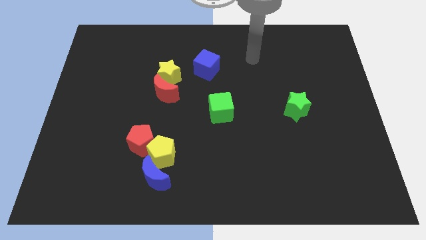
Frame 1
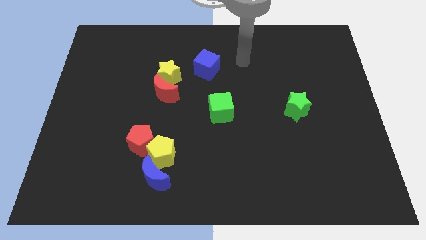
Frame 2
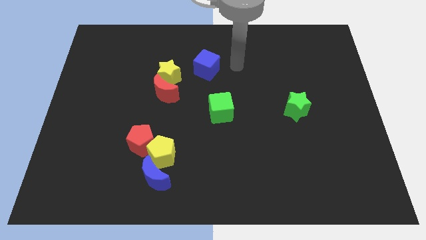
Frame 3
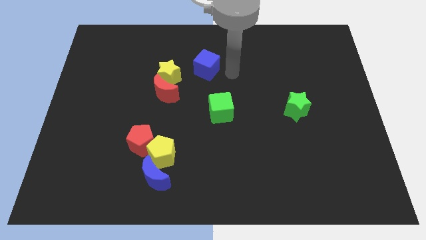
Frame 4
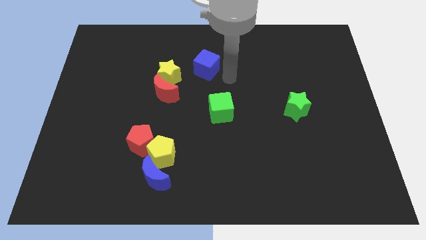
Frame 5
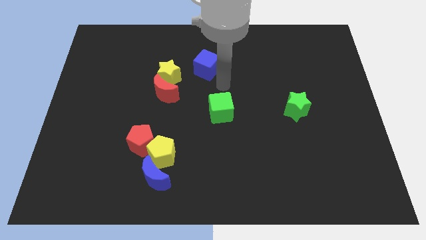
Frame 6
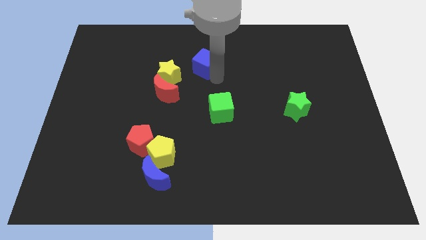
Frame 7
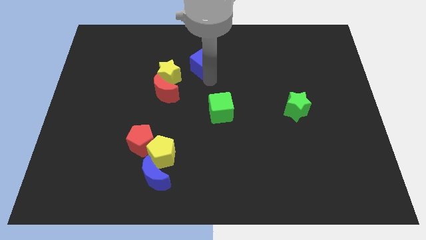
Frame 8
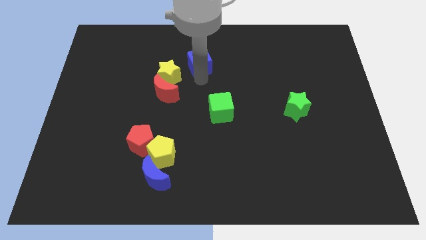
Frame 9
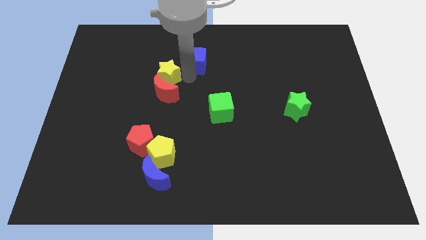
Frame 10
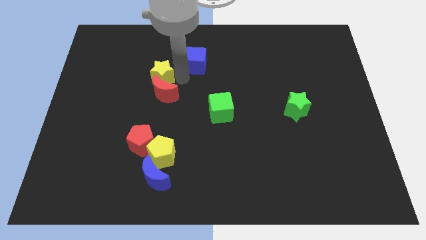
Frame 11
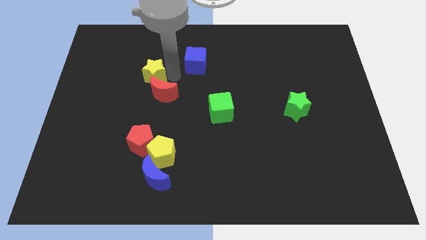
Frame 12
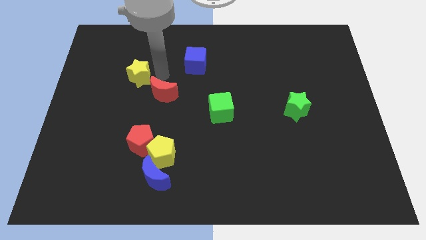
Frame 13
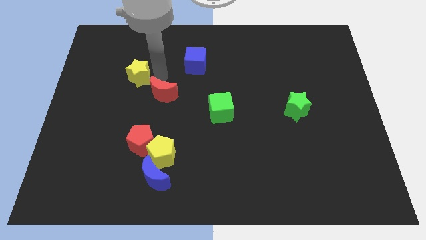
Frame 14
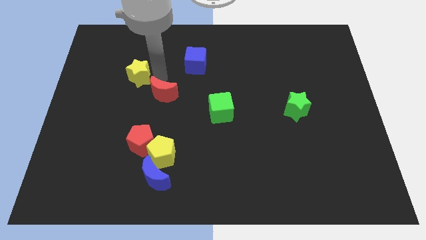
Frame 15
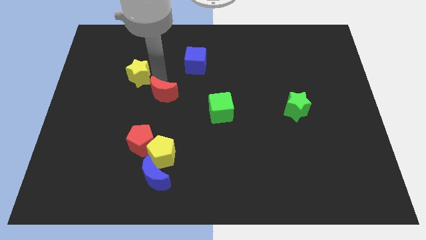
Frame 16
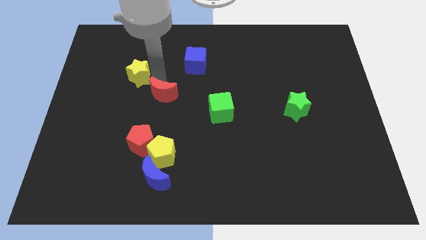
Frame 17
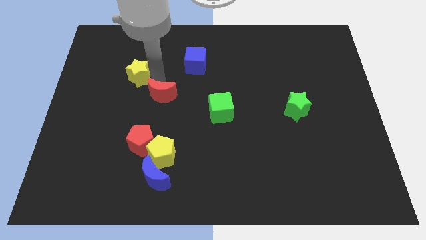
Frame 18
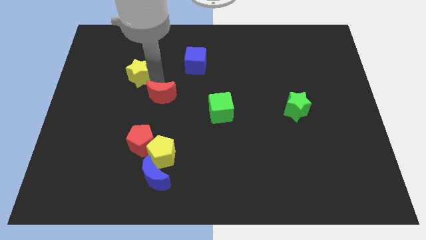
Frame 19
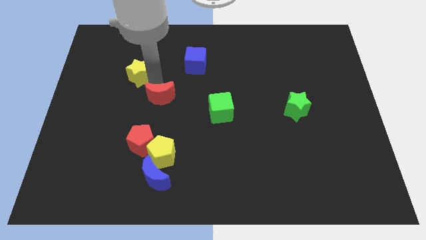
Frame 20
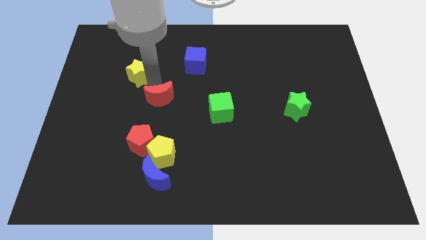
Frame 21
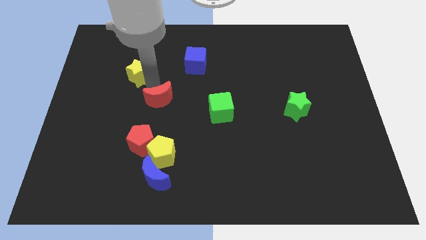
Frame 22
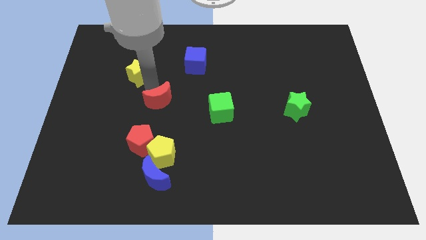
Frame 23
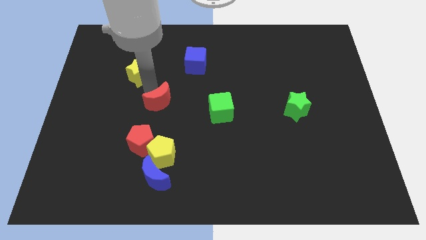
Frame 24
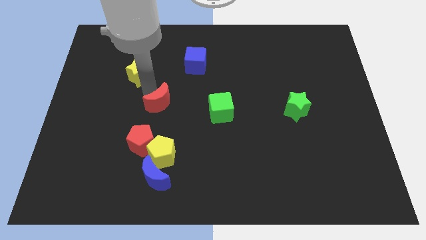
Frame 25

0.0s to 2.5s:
separate the red moon from the yellow star

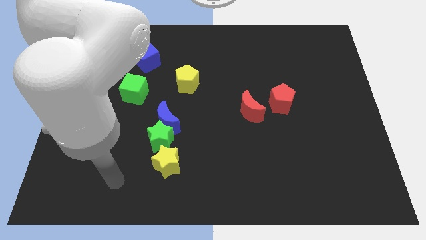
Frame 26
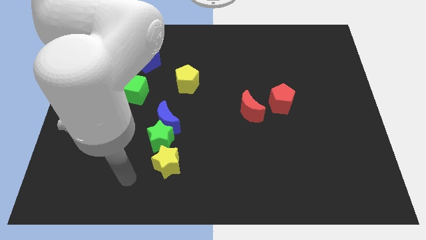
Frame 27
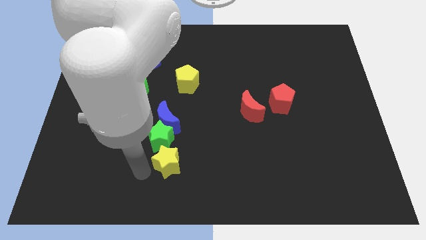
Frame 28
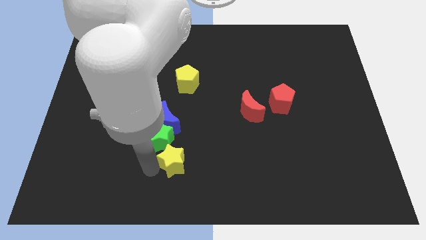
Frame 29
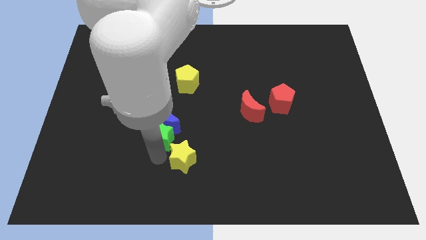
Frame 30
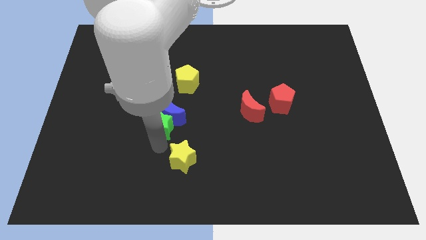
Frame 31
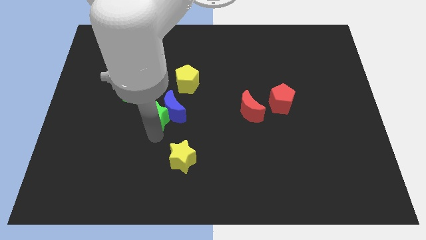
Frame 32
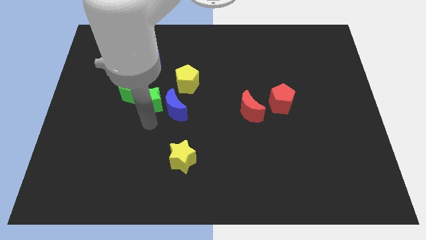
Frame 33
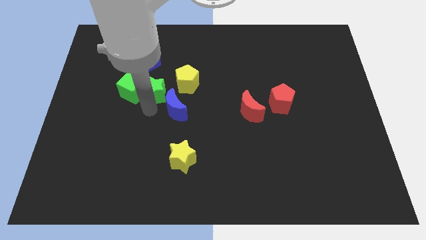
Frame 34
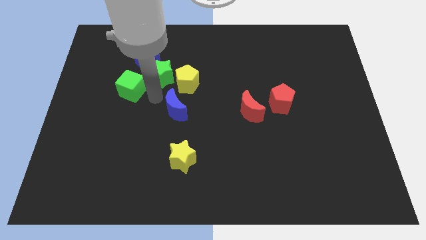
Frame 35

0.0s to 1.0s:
separate the blue moon from the green star

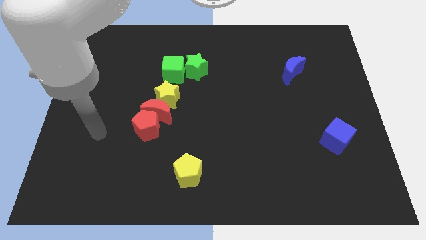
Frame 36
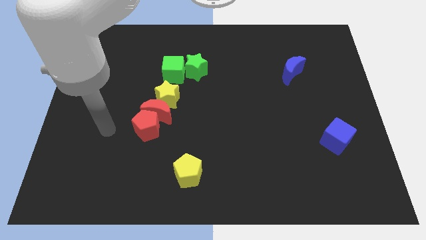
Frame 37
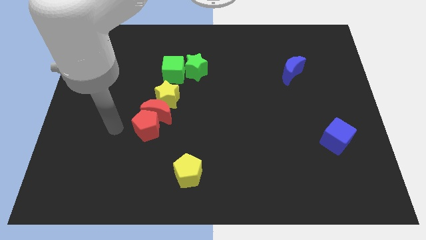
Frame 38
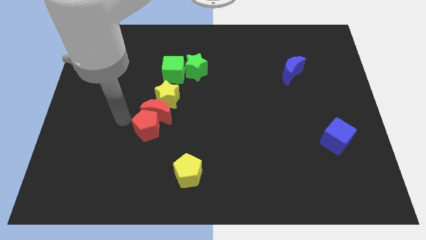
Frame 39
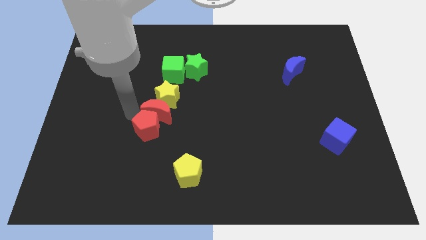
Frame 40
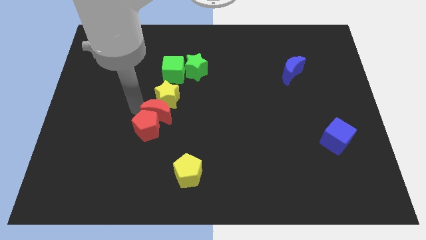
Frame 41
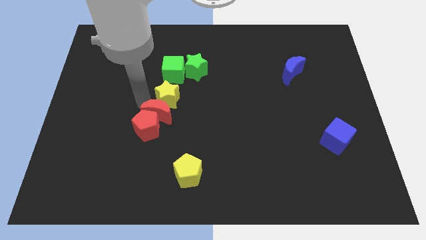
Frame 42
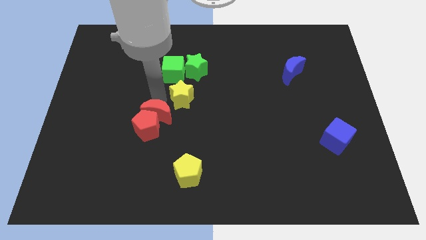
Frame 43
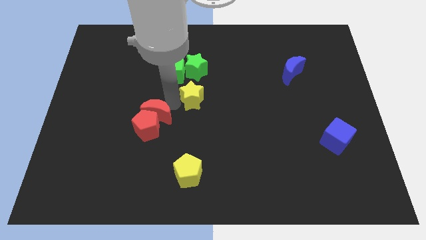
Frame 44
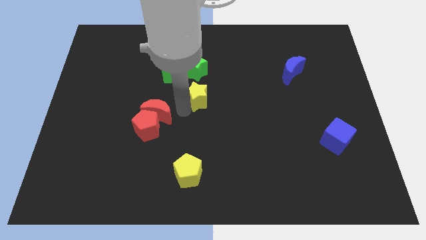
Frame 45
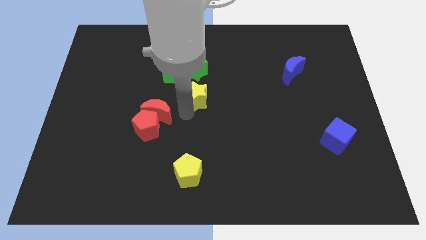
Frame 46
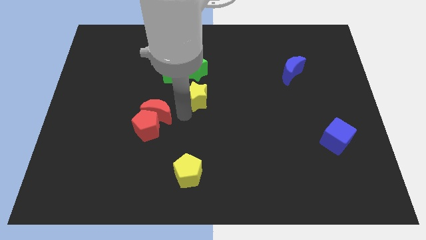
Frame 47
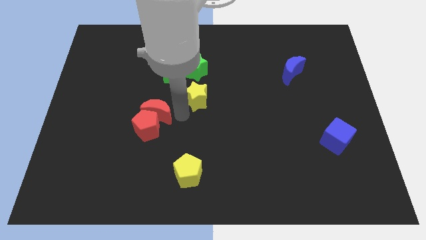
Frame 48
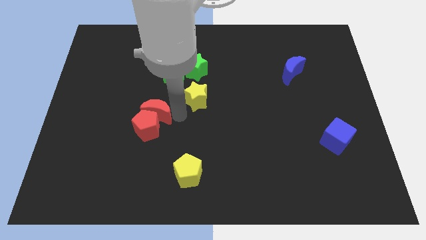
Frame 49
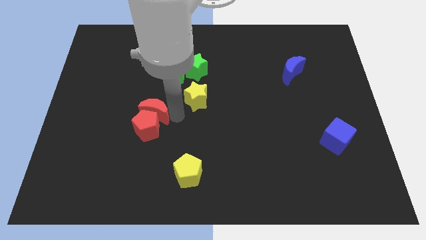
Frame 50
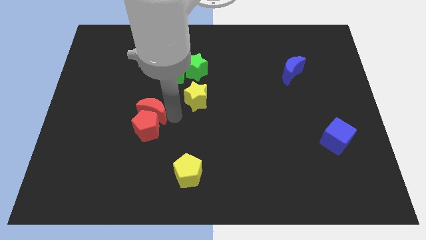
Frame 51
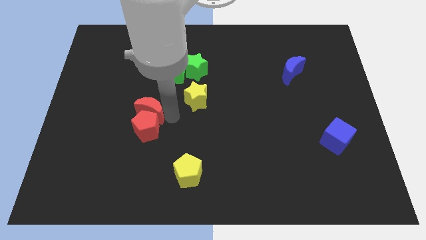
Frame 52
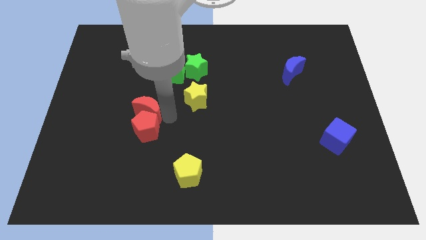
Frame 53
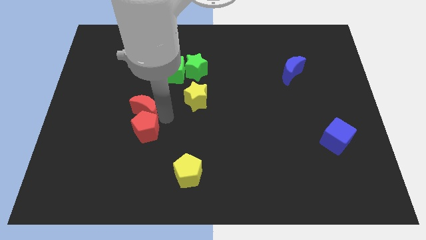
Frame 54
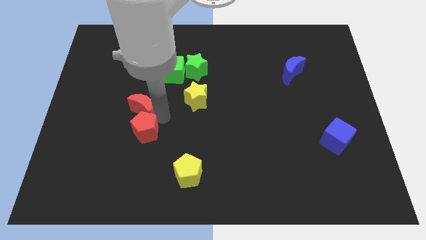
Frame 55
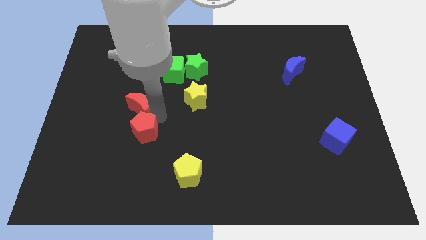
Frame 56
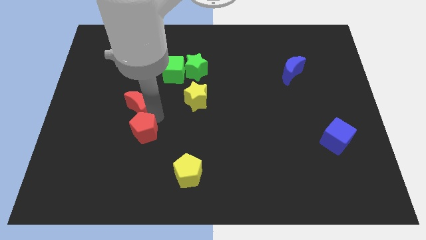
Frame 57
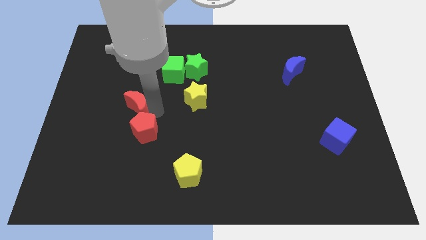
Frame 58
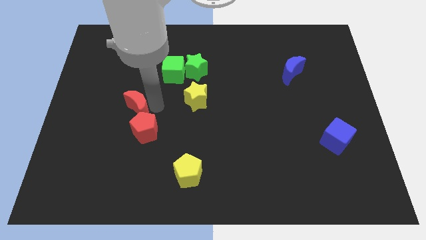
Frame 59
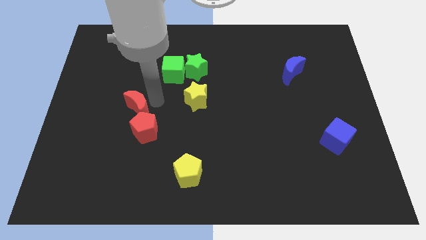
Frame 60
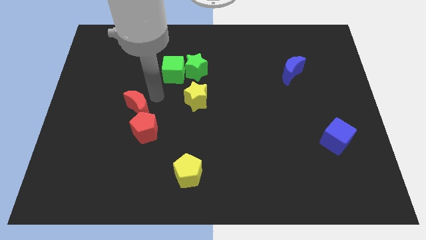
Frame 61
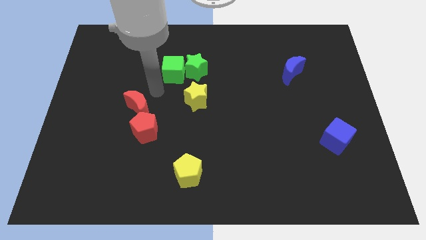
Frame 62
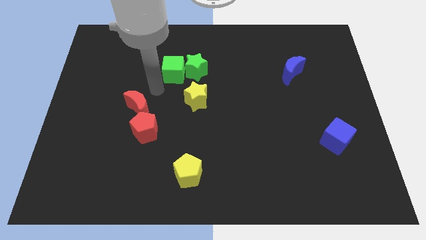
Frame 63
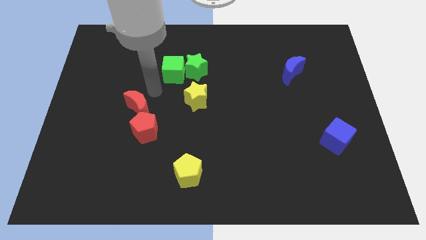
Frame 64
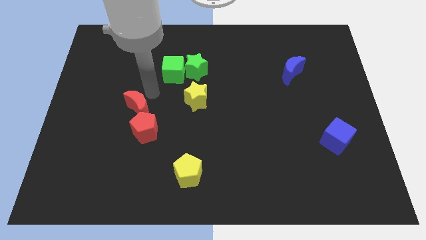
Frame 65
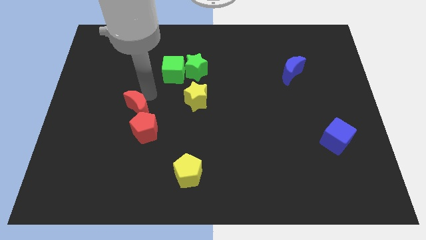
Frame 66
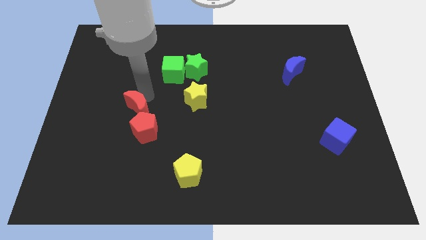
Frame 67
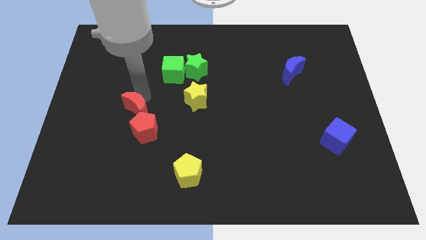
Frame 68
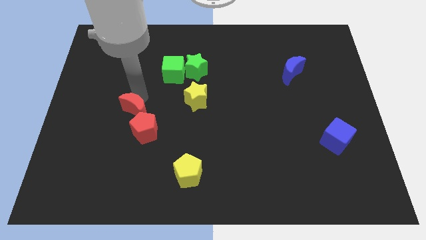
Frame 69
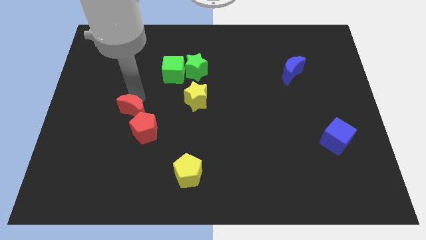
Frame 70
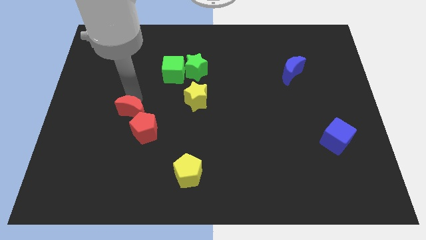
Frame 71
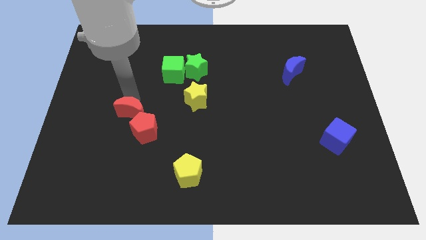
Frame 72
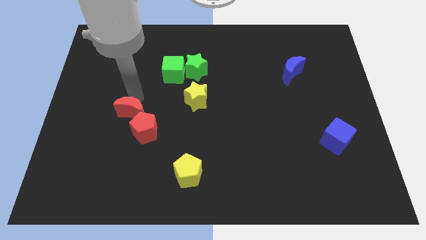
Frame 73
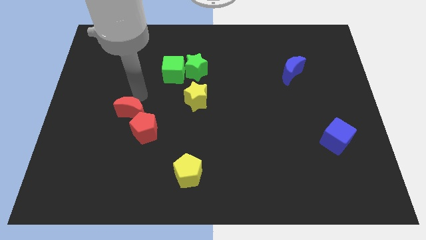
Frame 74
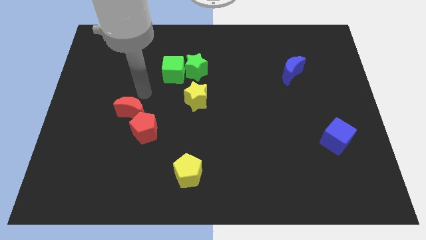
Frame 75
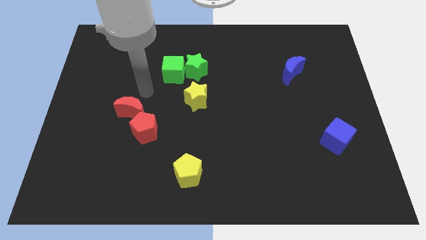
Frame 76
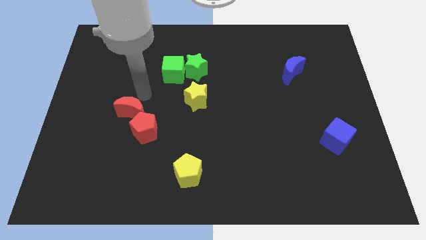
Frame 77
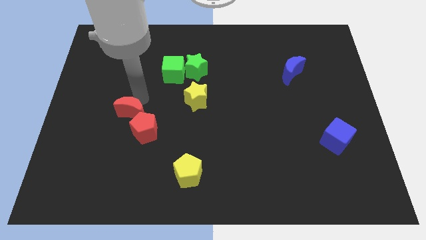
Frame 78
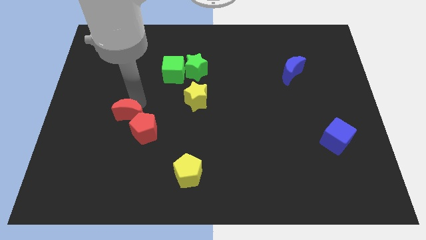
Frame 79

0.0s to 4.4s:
pull the red moon apart from the red pentagon and yellow star

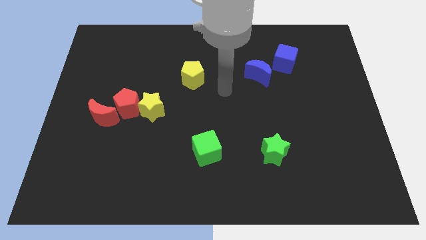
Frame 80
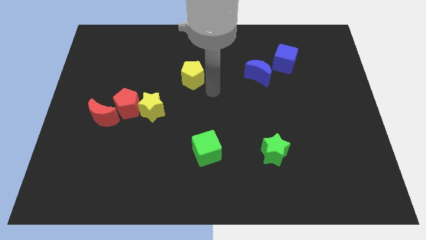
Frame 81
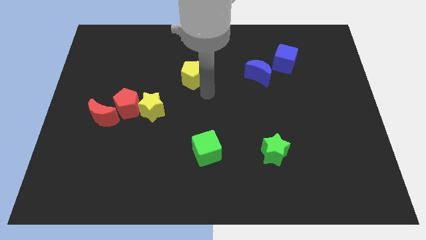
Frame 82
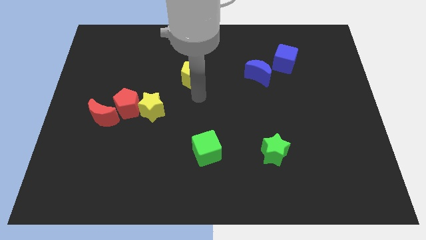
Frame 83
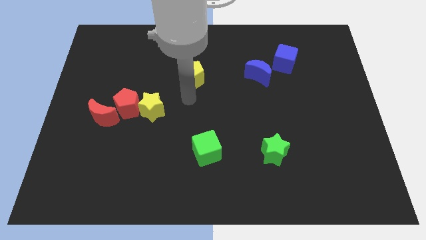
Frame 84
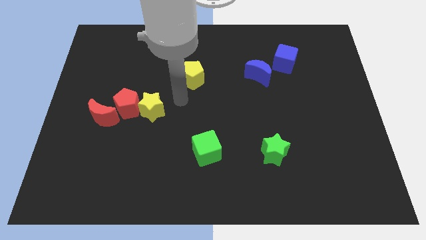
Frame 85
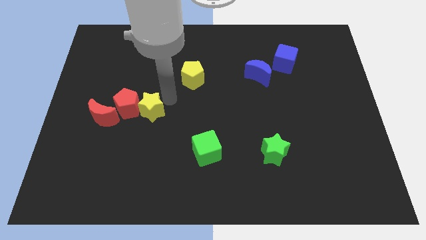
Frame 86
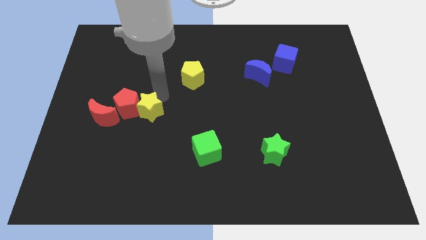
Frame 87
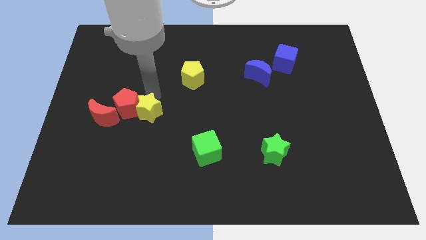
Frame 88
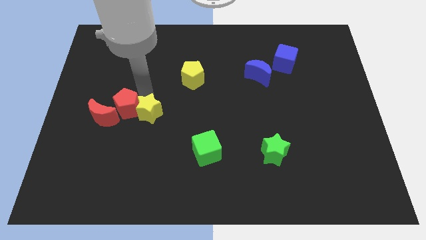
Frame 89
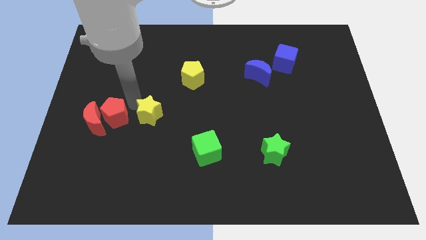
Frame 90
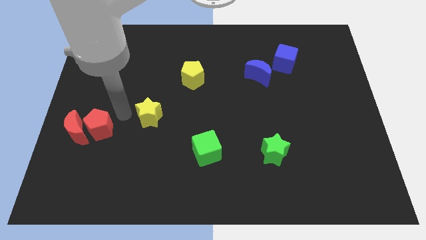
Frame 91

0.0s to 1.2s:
pull the yellow star apart from the red pentagon

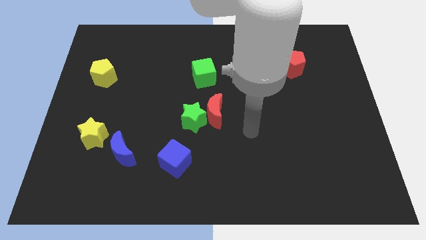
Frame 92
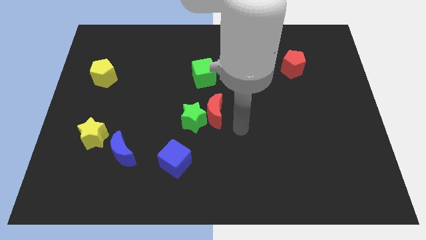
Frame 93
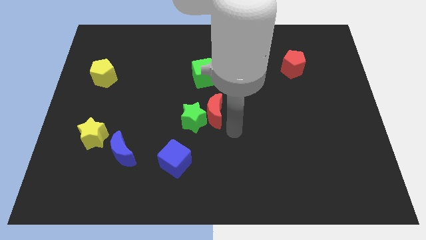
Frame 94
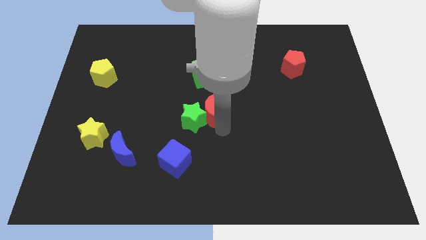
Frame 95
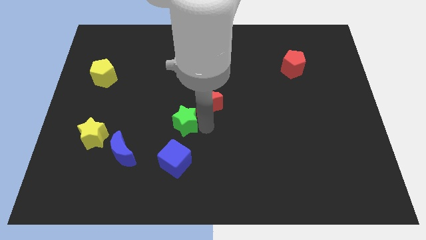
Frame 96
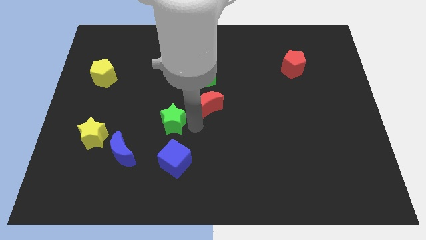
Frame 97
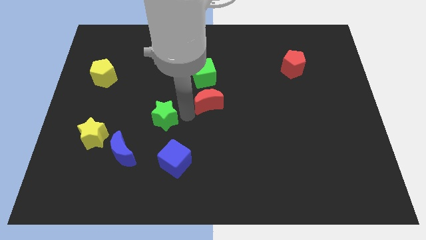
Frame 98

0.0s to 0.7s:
pull the red moon apart from the green star
